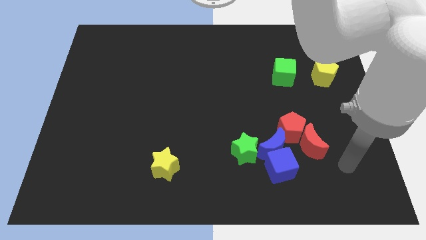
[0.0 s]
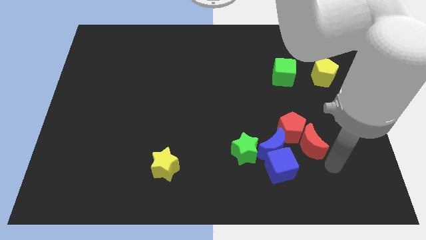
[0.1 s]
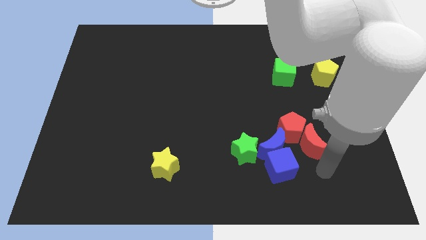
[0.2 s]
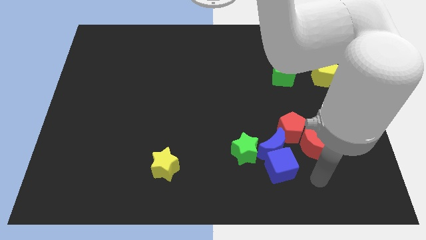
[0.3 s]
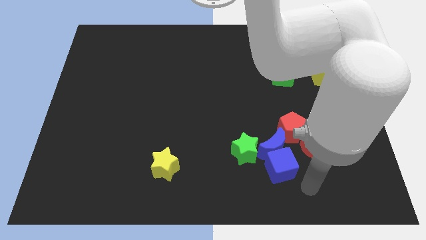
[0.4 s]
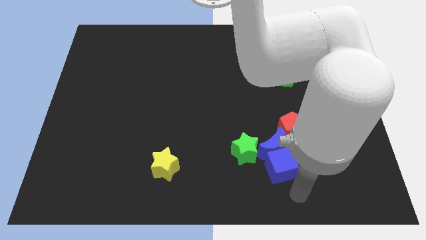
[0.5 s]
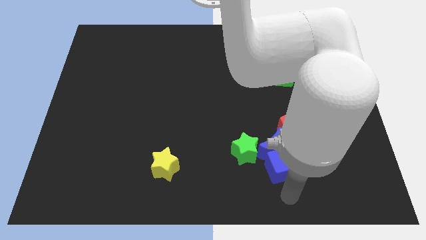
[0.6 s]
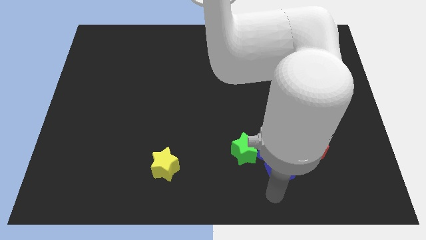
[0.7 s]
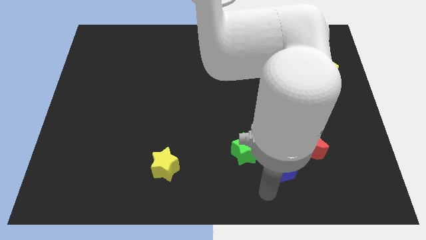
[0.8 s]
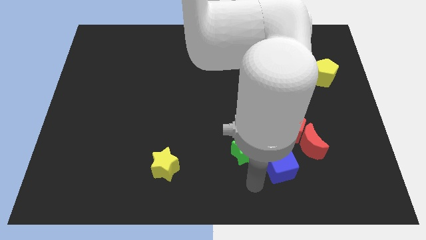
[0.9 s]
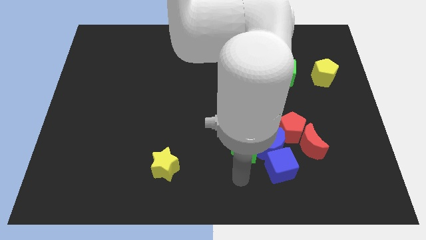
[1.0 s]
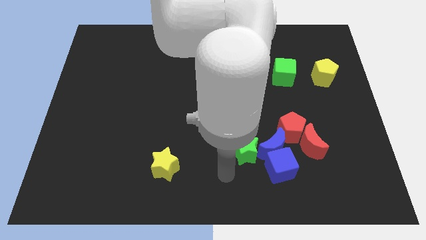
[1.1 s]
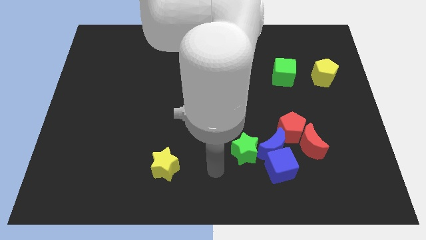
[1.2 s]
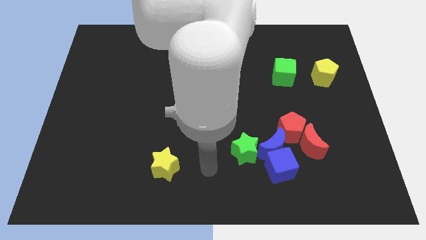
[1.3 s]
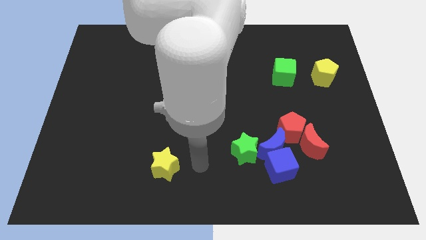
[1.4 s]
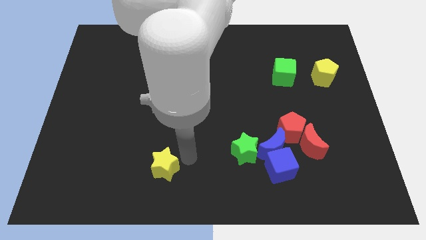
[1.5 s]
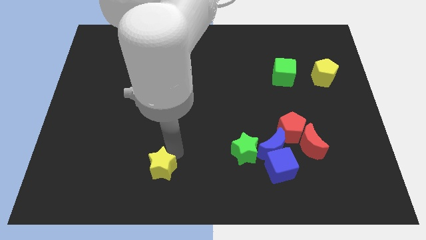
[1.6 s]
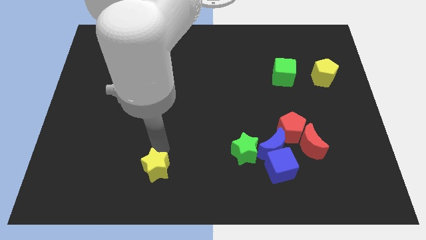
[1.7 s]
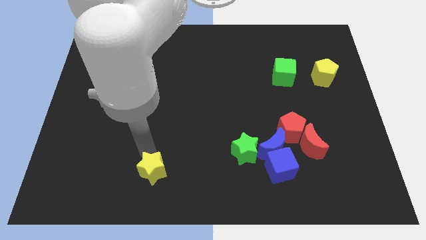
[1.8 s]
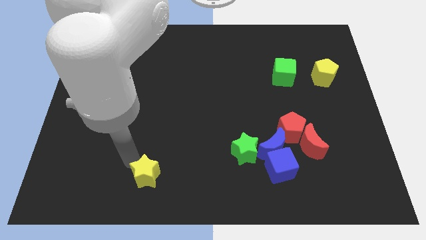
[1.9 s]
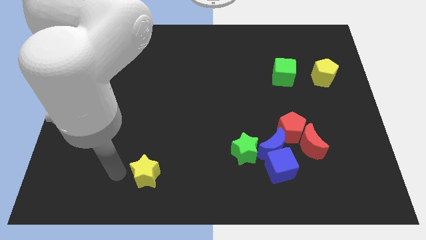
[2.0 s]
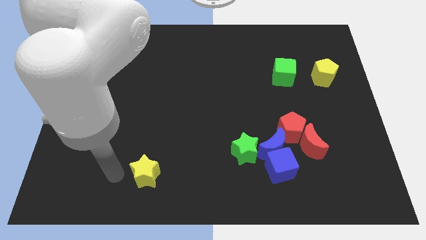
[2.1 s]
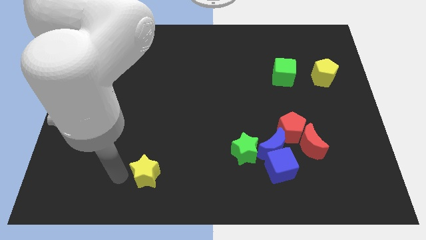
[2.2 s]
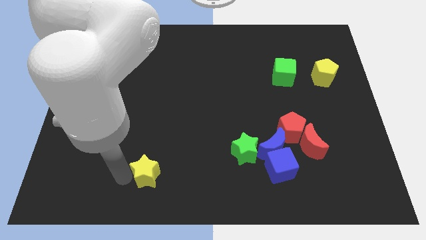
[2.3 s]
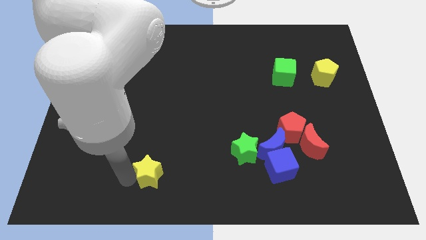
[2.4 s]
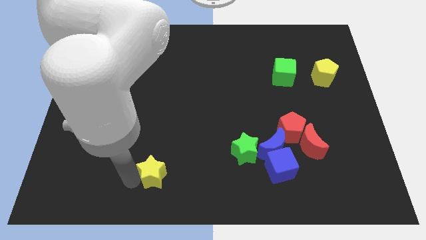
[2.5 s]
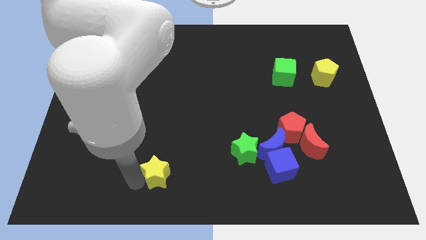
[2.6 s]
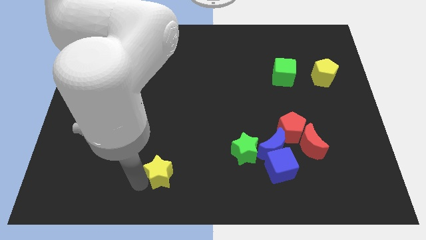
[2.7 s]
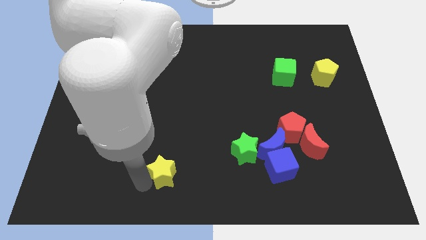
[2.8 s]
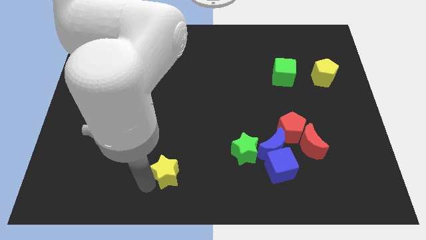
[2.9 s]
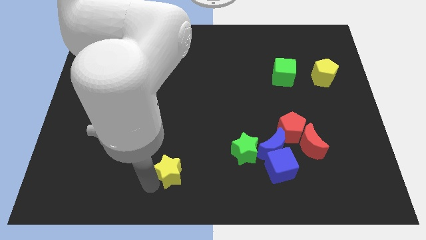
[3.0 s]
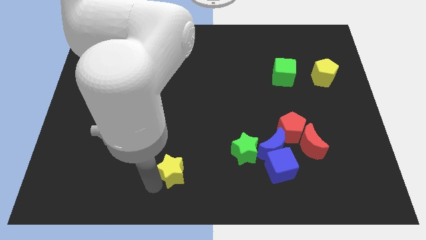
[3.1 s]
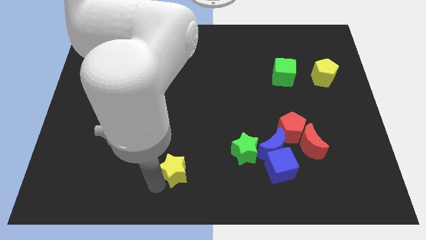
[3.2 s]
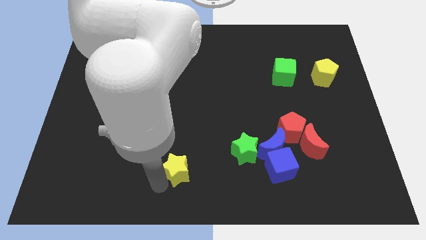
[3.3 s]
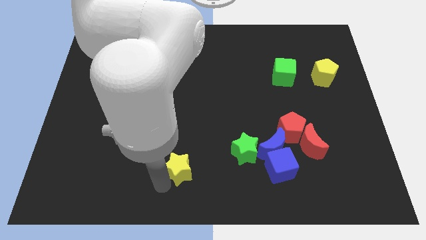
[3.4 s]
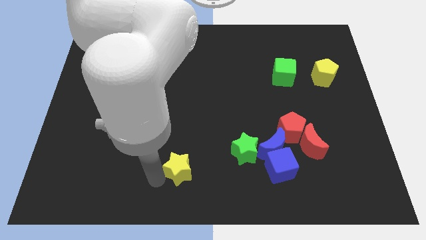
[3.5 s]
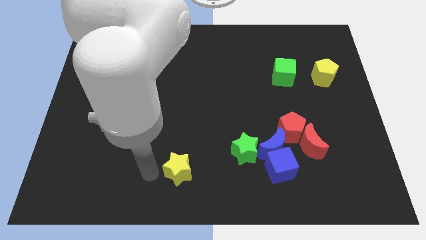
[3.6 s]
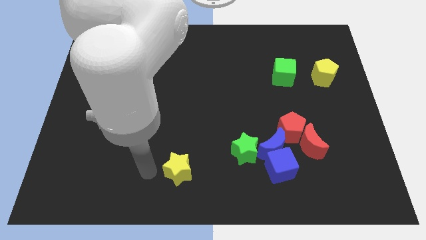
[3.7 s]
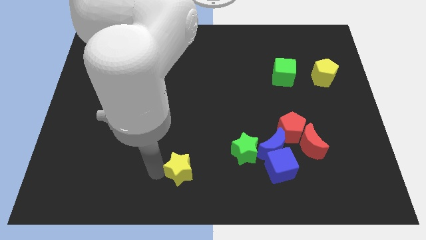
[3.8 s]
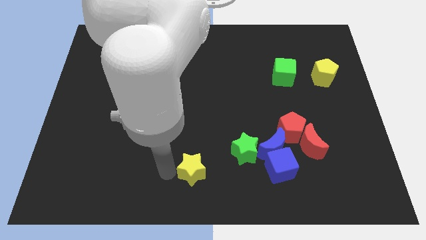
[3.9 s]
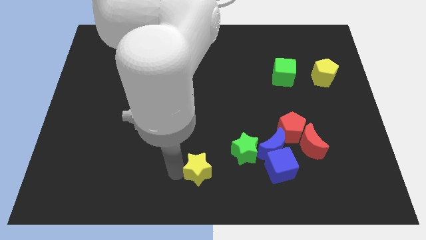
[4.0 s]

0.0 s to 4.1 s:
slide the yellow star right slightly

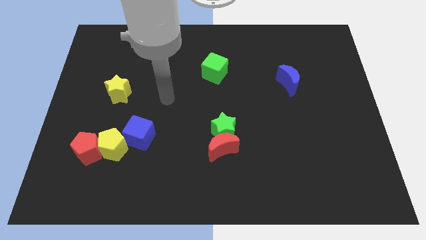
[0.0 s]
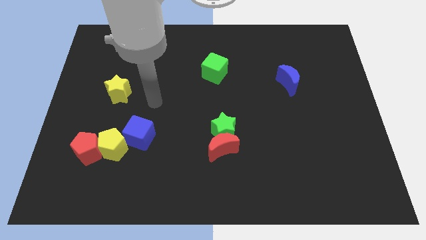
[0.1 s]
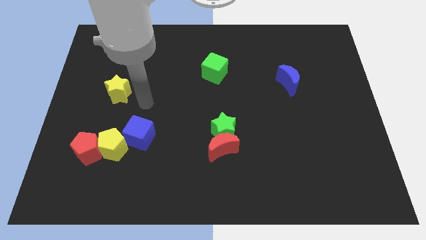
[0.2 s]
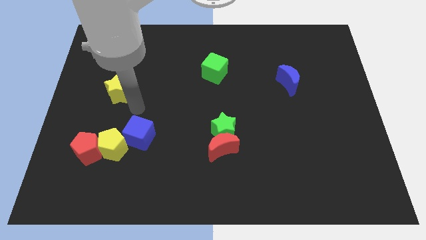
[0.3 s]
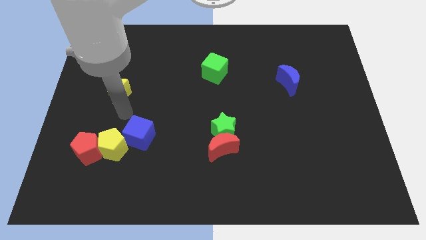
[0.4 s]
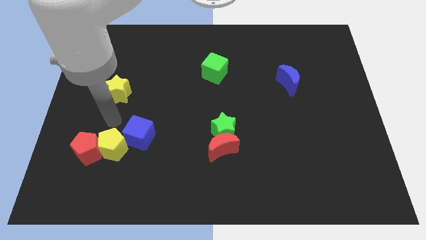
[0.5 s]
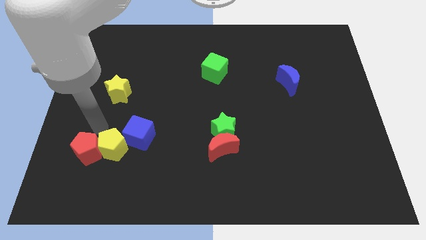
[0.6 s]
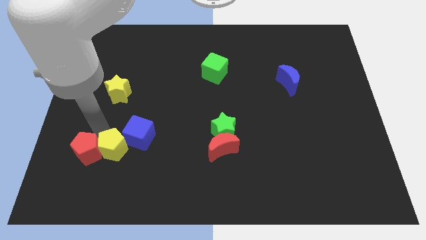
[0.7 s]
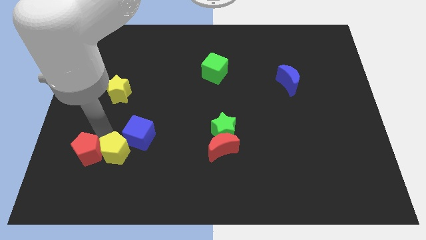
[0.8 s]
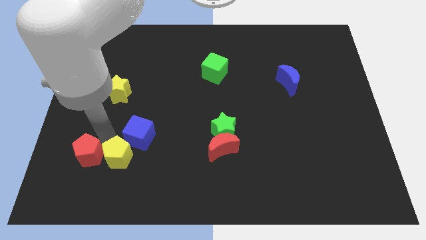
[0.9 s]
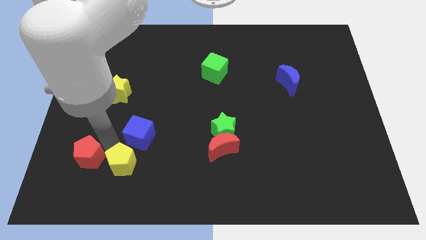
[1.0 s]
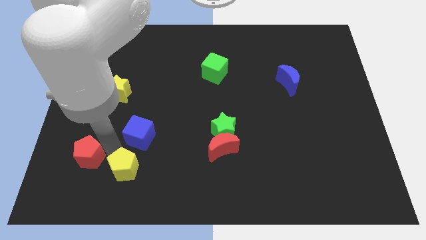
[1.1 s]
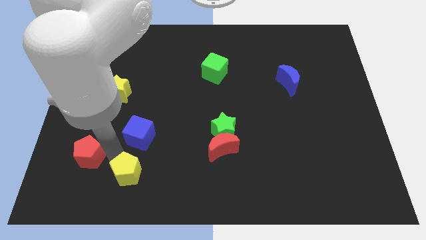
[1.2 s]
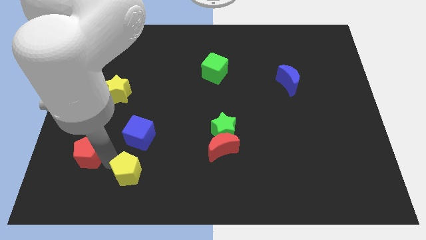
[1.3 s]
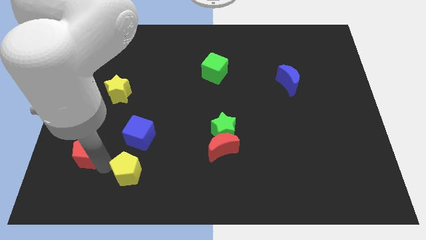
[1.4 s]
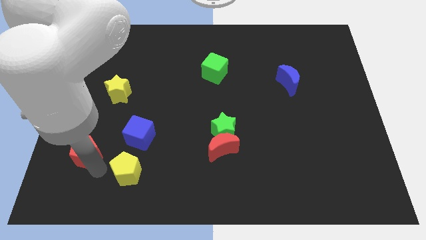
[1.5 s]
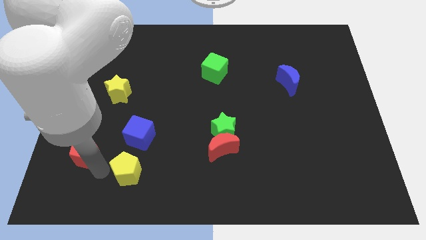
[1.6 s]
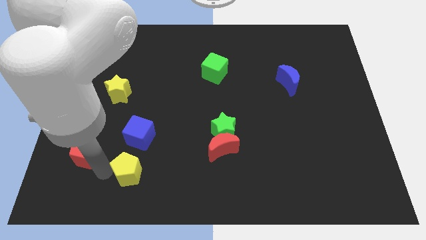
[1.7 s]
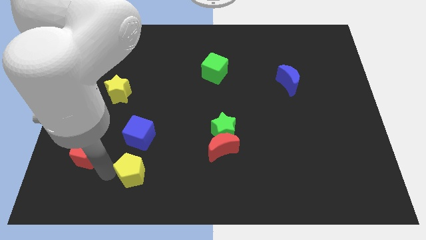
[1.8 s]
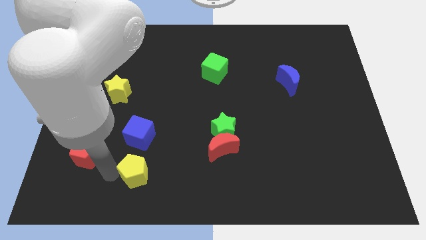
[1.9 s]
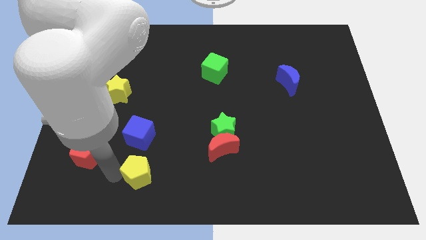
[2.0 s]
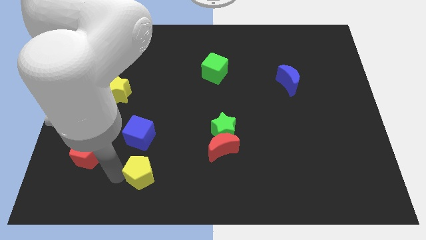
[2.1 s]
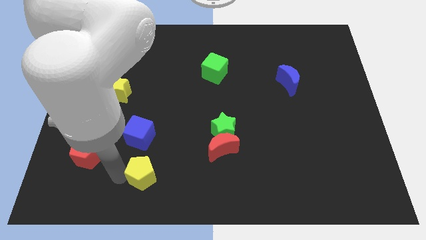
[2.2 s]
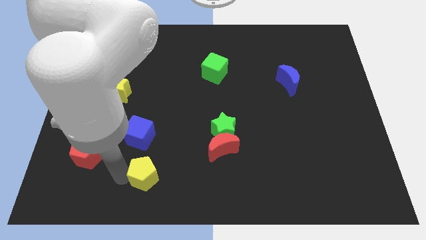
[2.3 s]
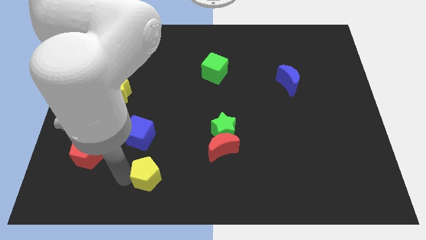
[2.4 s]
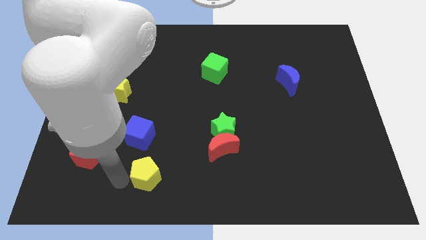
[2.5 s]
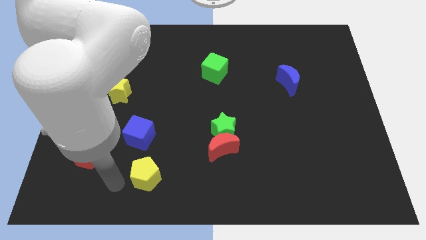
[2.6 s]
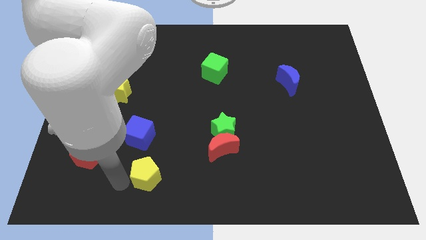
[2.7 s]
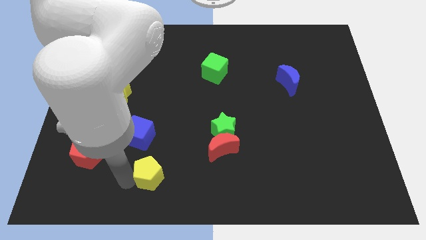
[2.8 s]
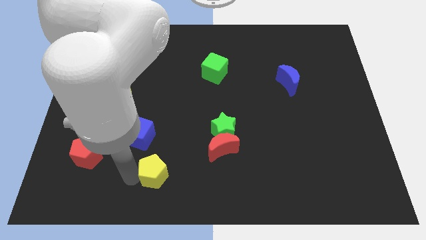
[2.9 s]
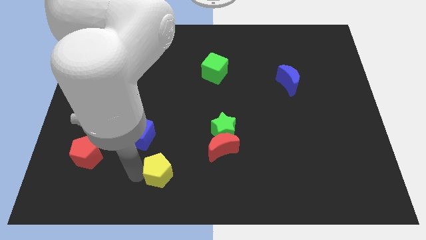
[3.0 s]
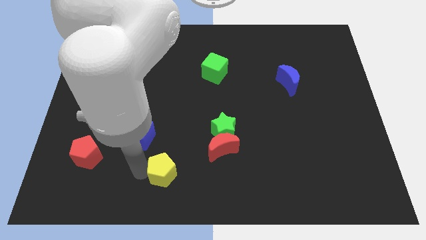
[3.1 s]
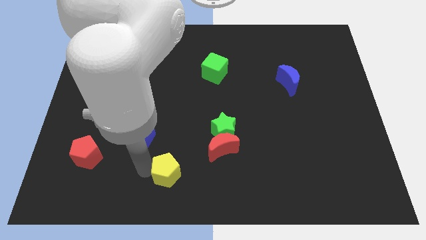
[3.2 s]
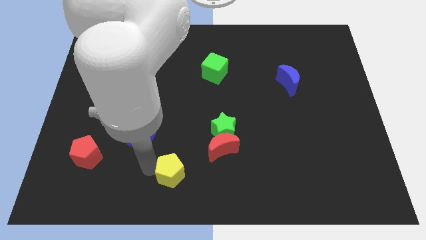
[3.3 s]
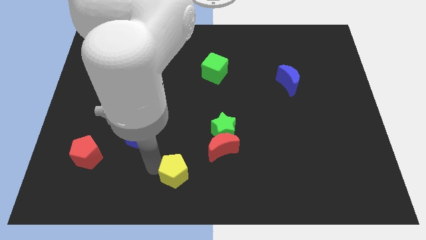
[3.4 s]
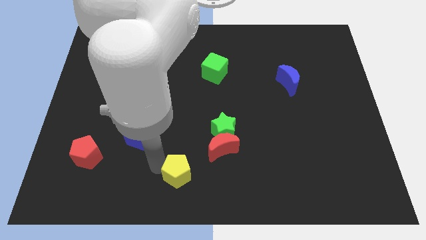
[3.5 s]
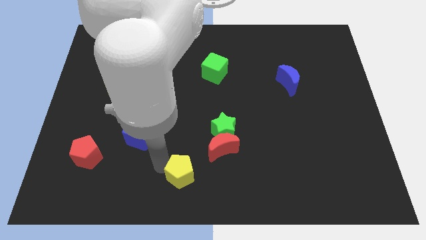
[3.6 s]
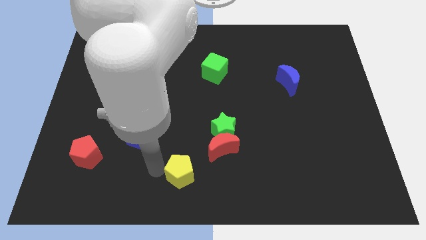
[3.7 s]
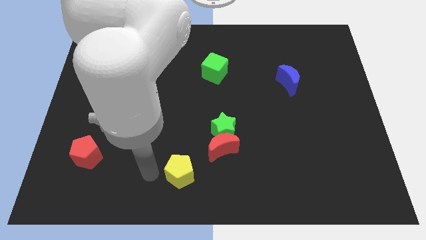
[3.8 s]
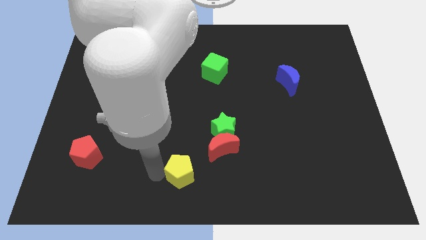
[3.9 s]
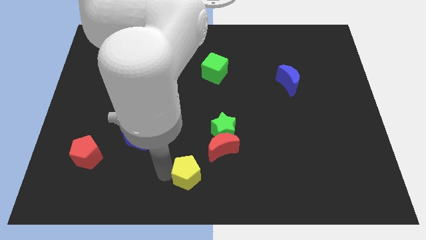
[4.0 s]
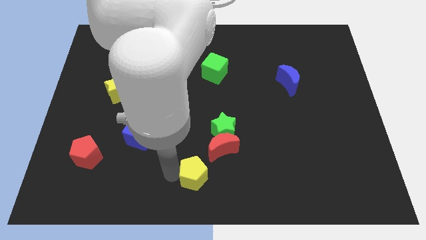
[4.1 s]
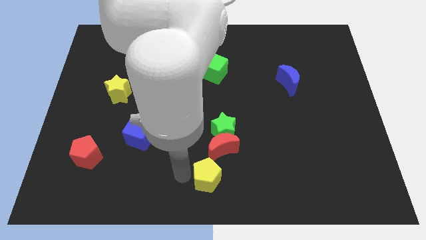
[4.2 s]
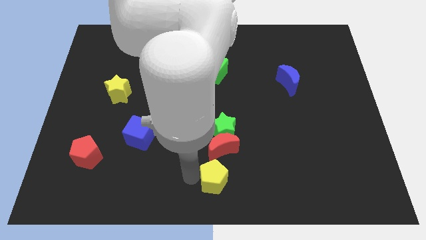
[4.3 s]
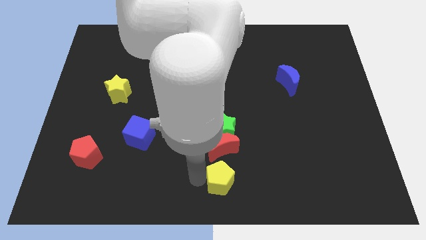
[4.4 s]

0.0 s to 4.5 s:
move the yellow pentagon right

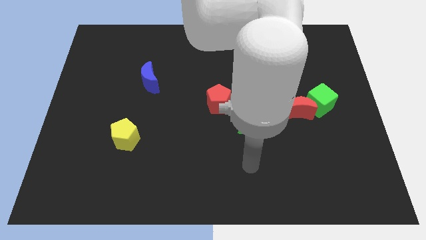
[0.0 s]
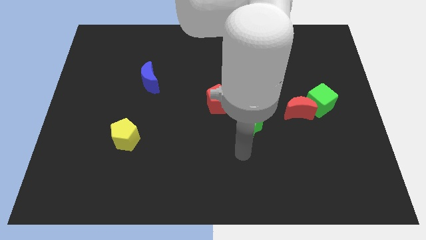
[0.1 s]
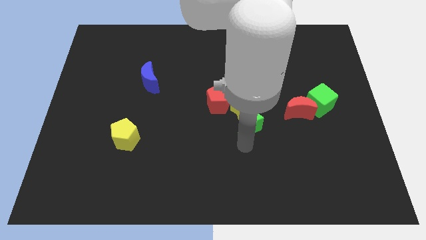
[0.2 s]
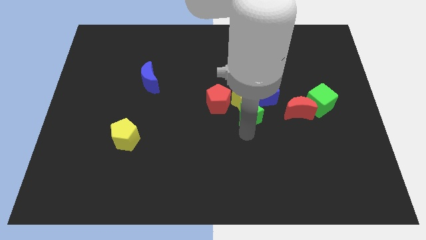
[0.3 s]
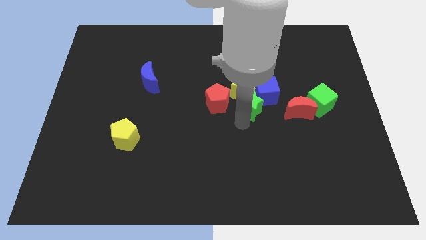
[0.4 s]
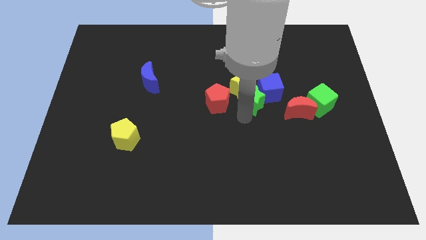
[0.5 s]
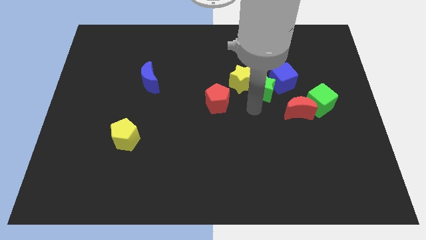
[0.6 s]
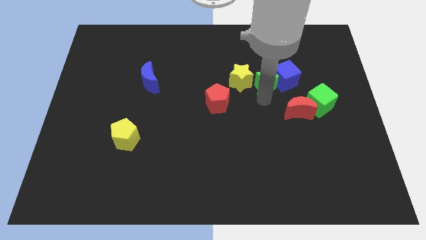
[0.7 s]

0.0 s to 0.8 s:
push the blue cube up and then to the right a little bit
